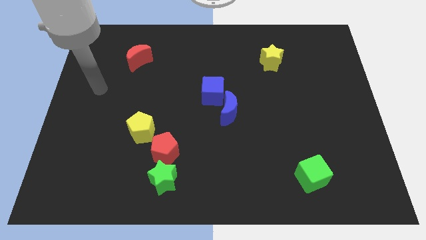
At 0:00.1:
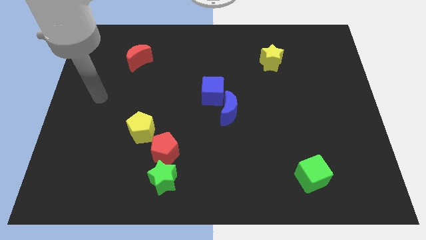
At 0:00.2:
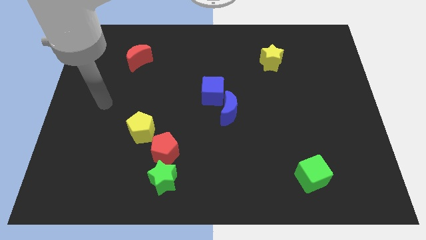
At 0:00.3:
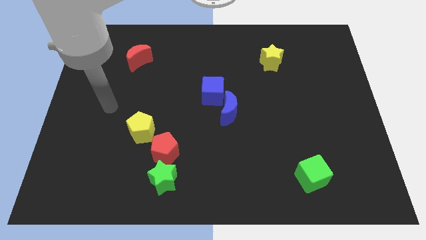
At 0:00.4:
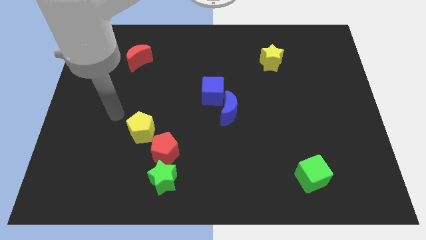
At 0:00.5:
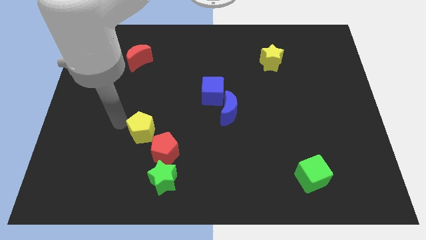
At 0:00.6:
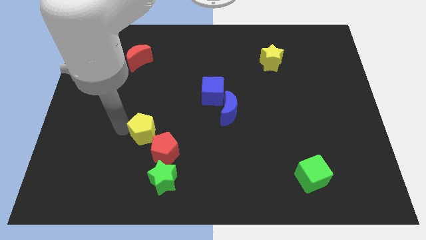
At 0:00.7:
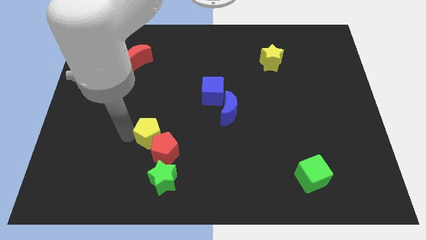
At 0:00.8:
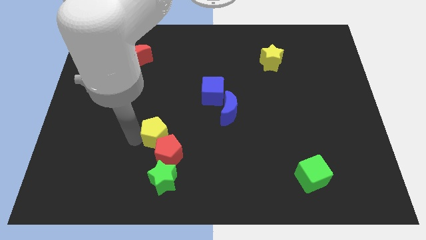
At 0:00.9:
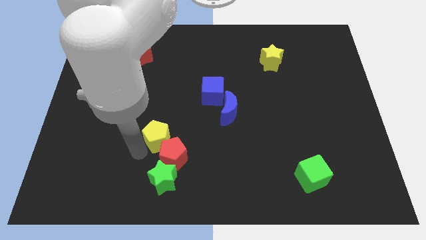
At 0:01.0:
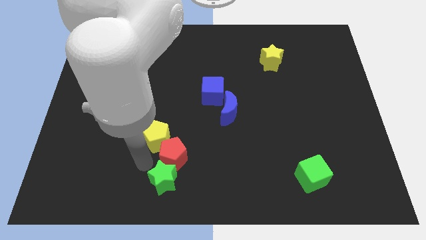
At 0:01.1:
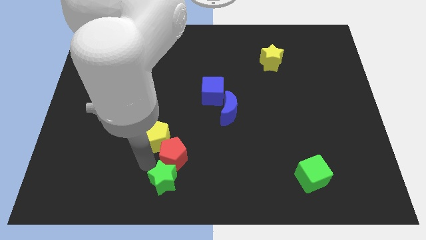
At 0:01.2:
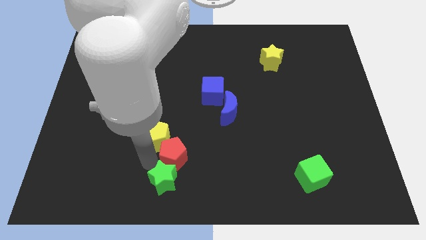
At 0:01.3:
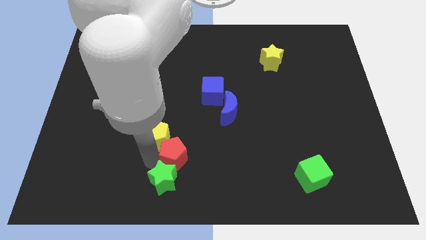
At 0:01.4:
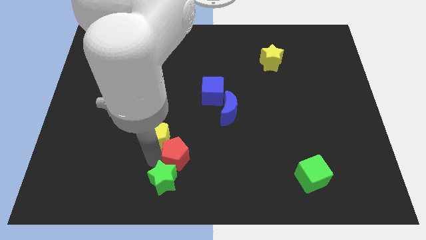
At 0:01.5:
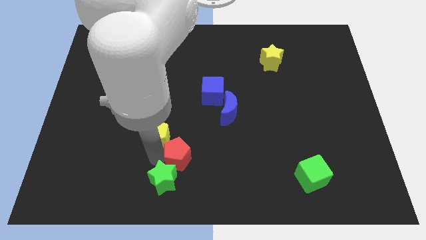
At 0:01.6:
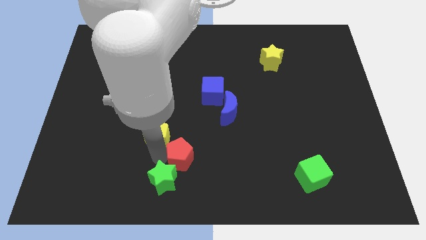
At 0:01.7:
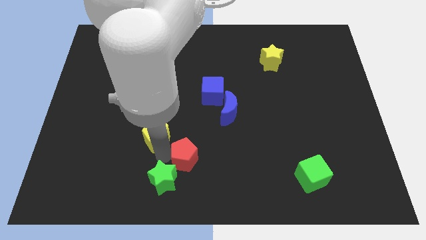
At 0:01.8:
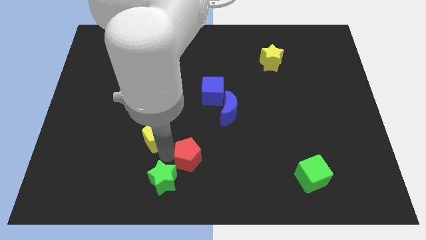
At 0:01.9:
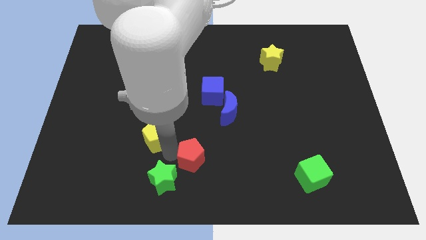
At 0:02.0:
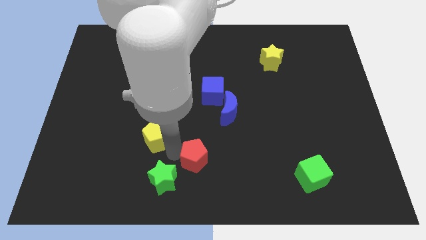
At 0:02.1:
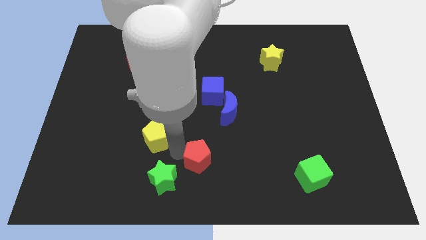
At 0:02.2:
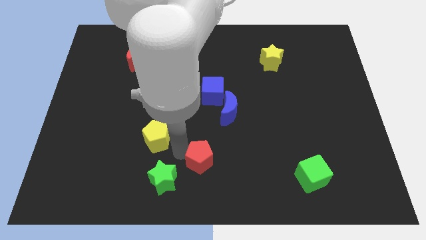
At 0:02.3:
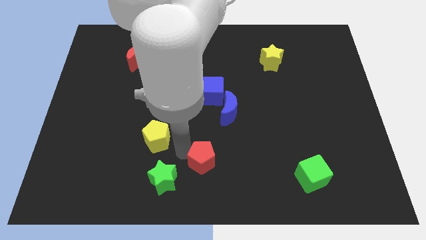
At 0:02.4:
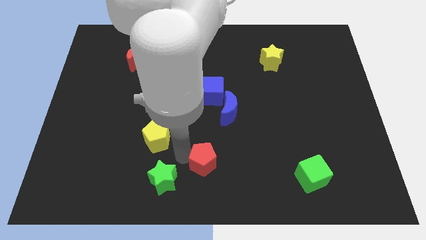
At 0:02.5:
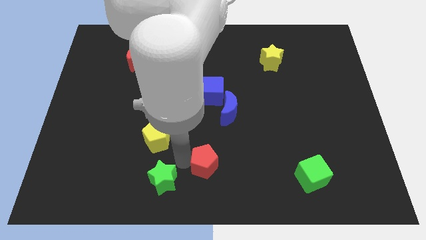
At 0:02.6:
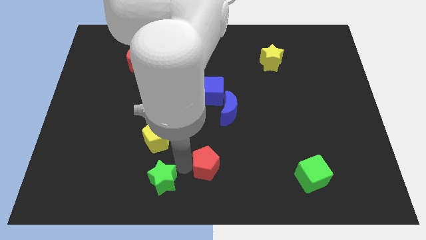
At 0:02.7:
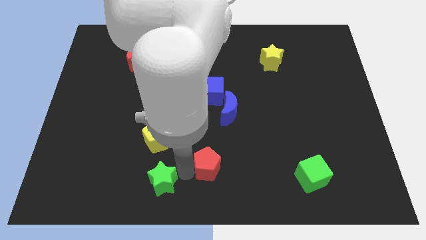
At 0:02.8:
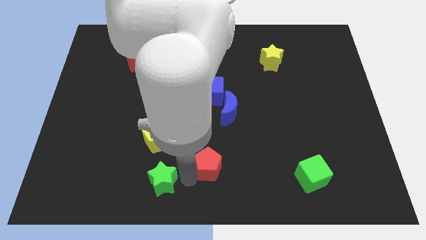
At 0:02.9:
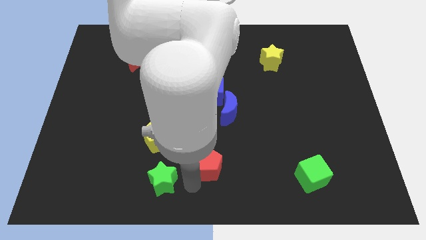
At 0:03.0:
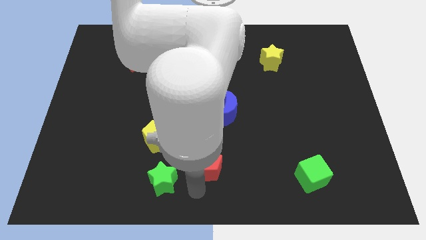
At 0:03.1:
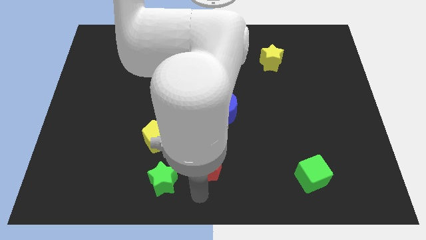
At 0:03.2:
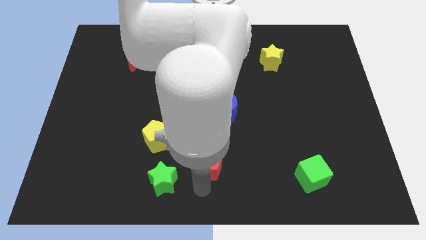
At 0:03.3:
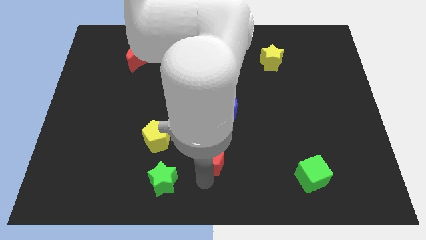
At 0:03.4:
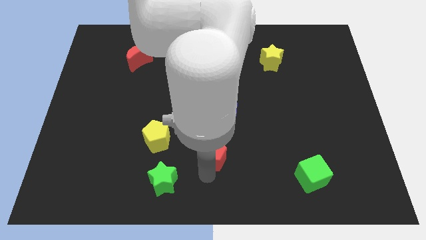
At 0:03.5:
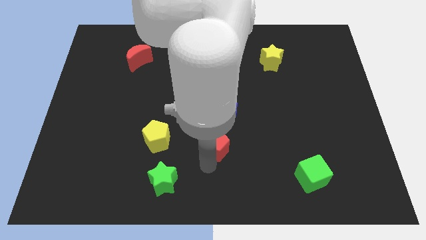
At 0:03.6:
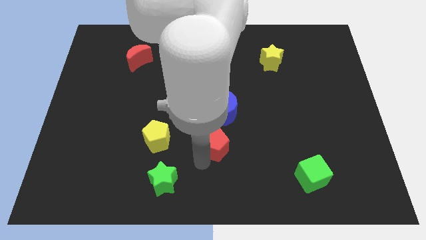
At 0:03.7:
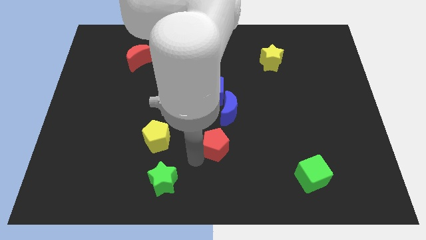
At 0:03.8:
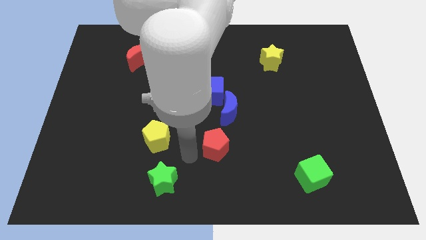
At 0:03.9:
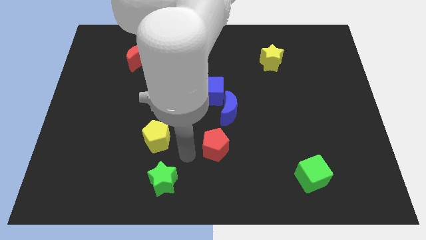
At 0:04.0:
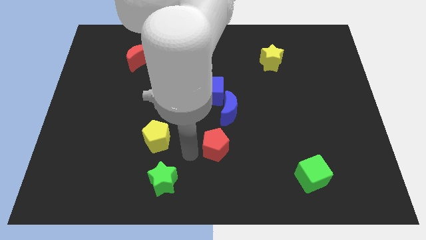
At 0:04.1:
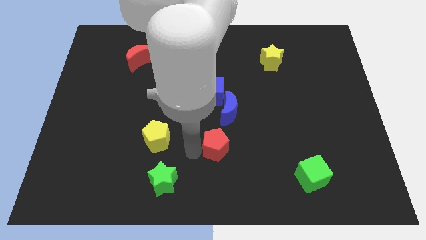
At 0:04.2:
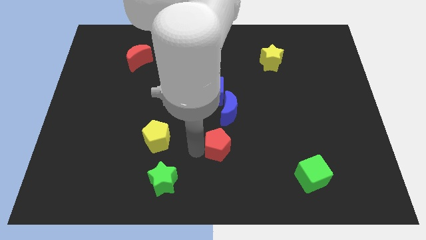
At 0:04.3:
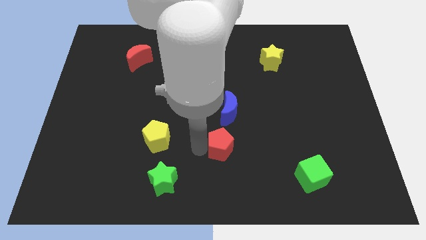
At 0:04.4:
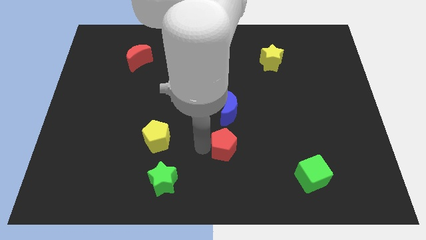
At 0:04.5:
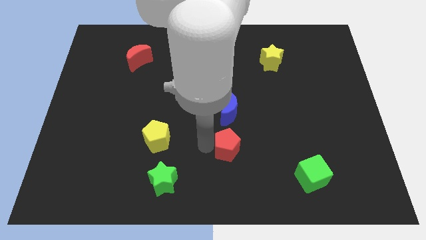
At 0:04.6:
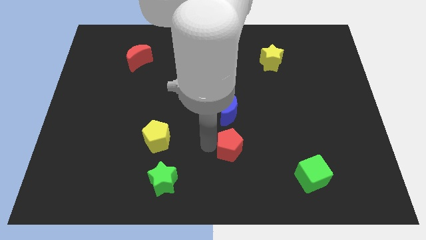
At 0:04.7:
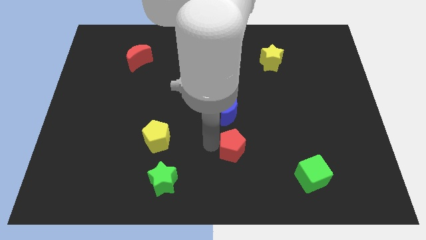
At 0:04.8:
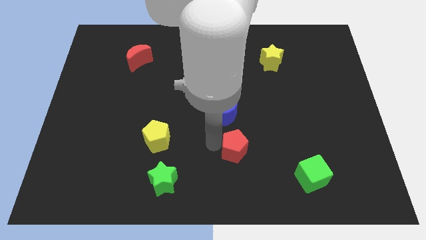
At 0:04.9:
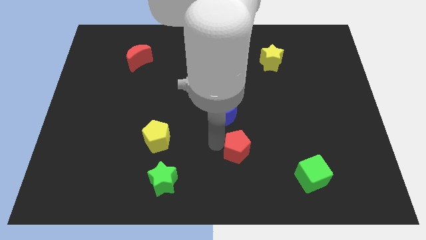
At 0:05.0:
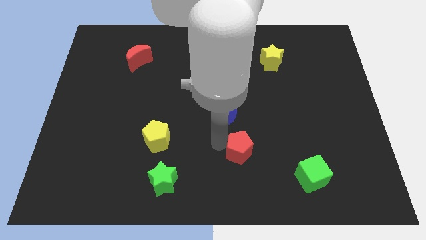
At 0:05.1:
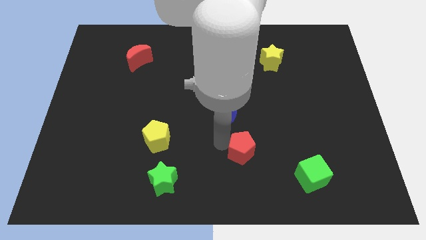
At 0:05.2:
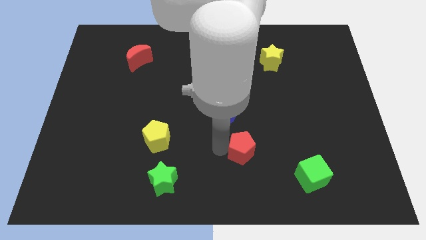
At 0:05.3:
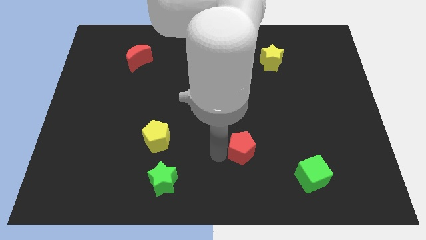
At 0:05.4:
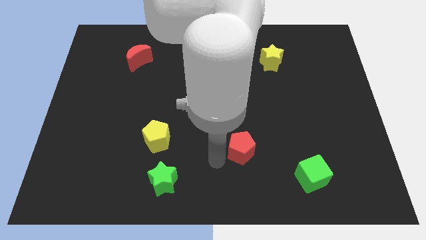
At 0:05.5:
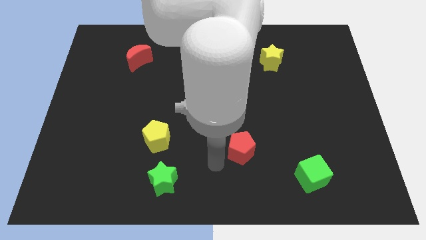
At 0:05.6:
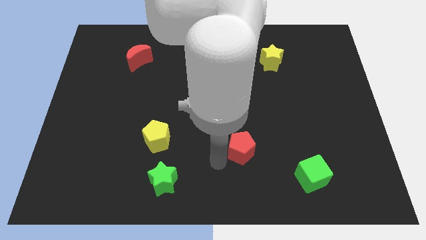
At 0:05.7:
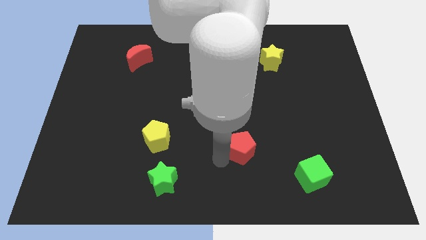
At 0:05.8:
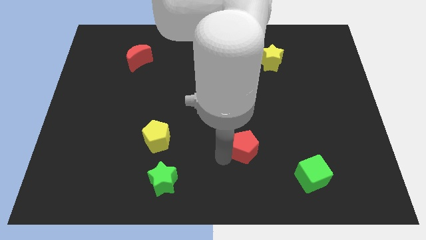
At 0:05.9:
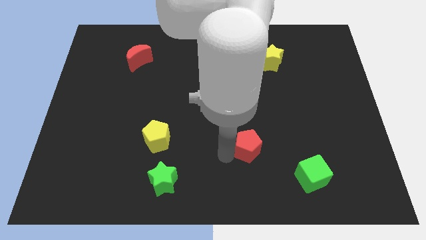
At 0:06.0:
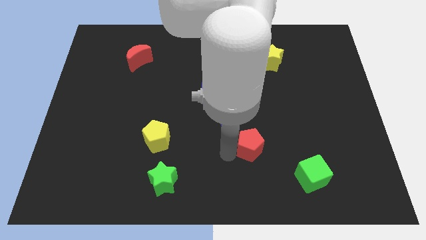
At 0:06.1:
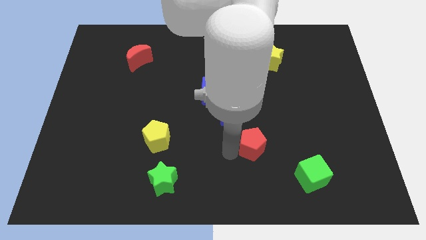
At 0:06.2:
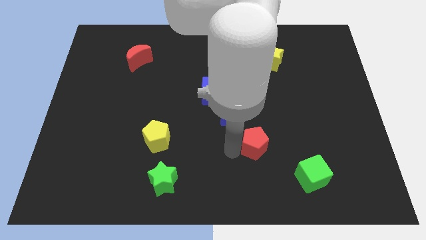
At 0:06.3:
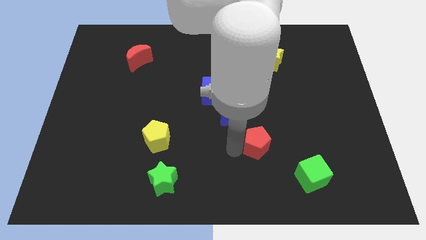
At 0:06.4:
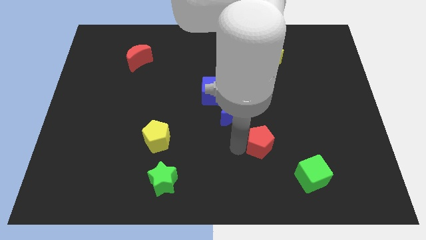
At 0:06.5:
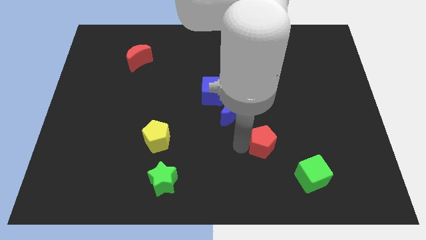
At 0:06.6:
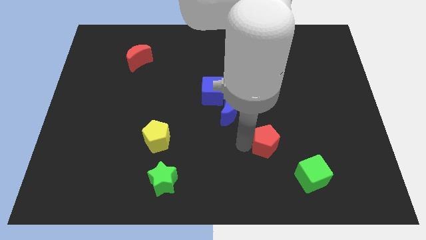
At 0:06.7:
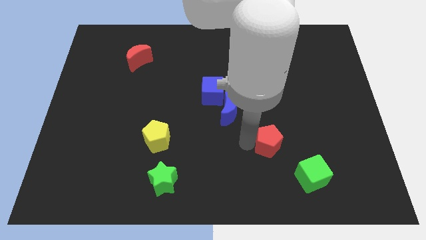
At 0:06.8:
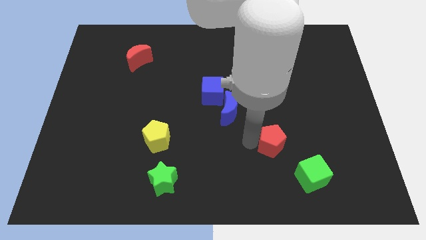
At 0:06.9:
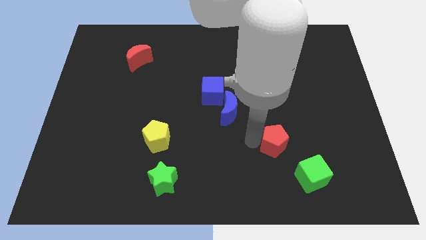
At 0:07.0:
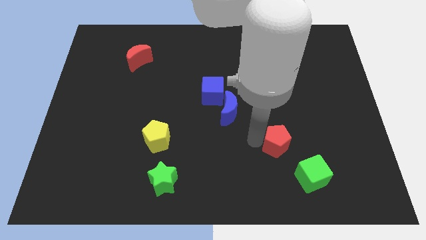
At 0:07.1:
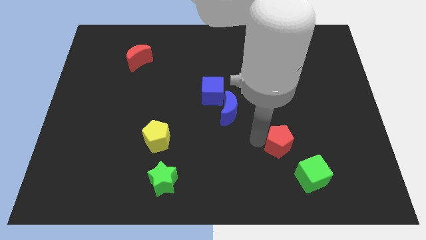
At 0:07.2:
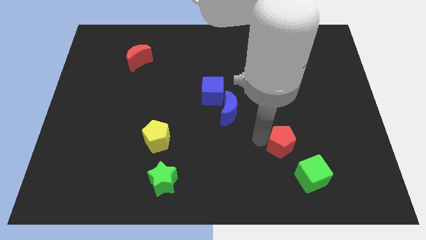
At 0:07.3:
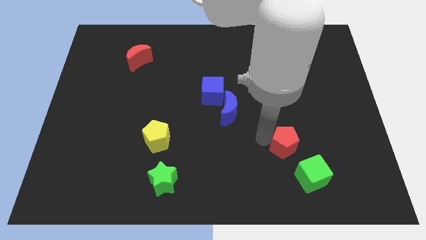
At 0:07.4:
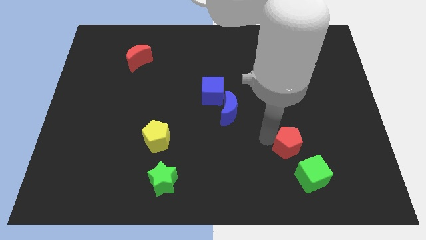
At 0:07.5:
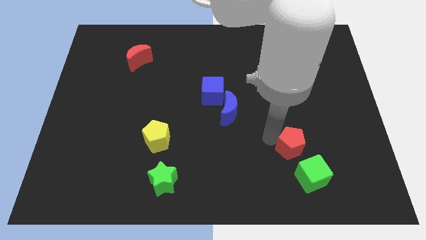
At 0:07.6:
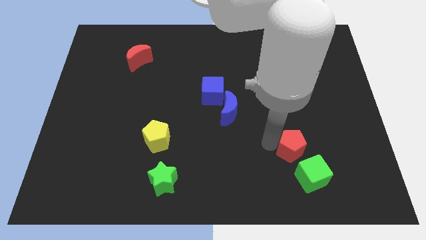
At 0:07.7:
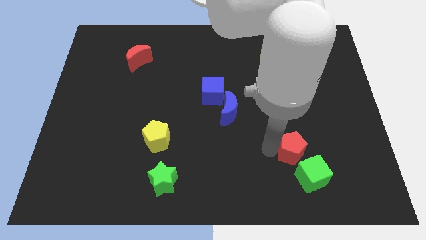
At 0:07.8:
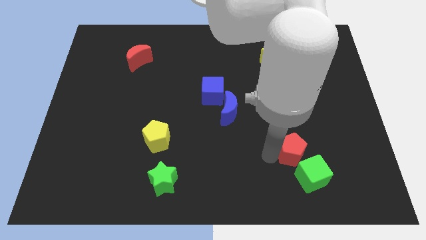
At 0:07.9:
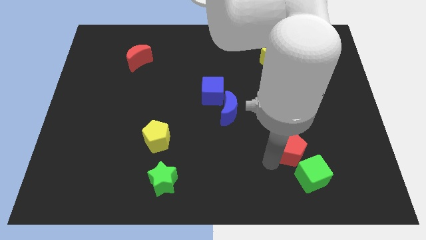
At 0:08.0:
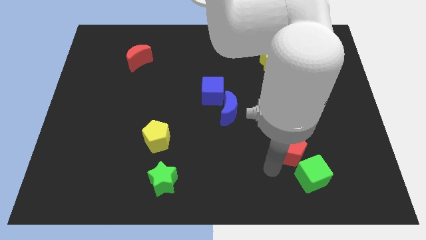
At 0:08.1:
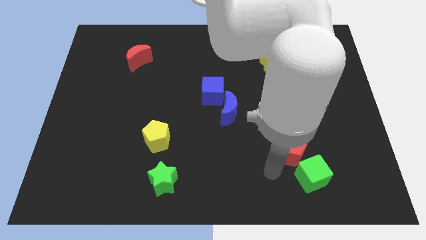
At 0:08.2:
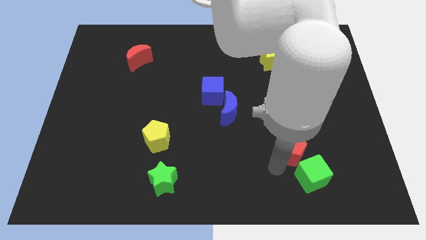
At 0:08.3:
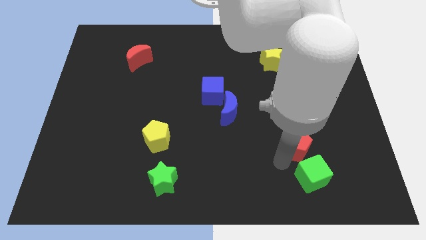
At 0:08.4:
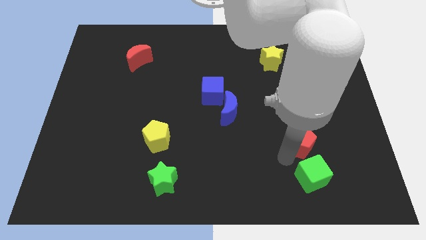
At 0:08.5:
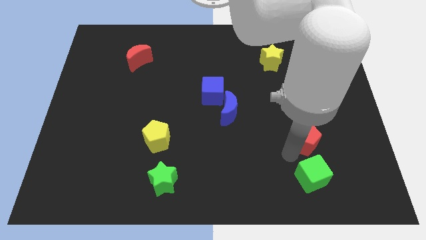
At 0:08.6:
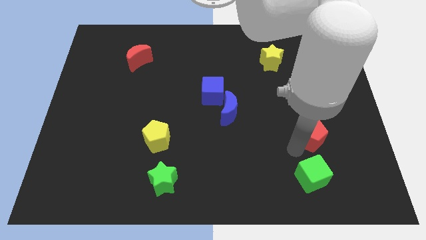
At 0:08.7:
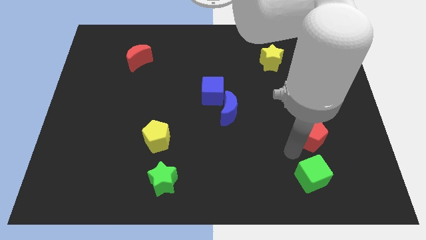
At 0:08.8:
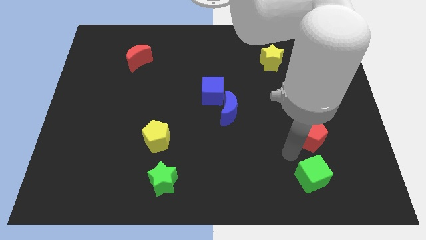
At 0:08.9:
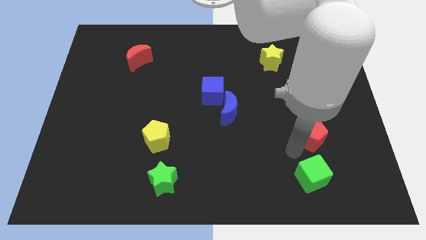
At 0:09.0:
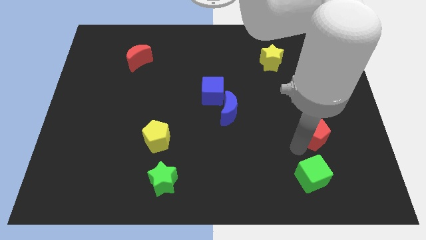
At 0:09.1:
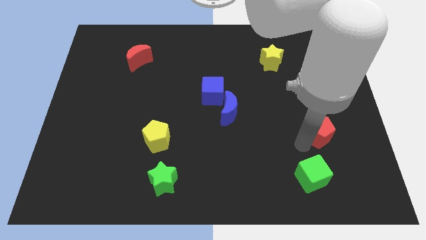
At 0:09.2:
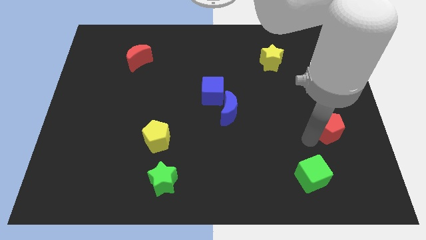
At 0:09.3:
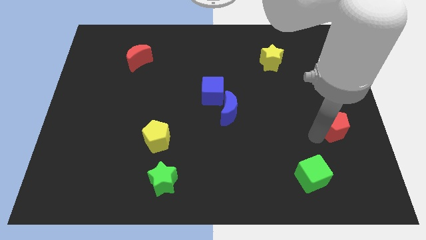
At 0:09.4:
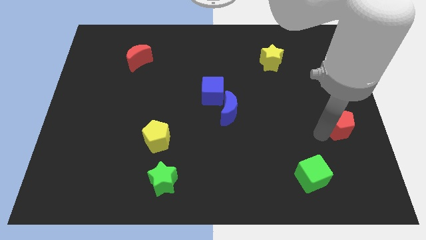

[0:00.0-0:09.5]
slide the red pentagon to the right side of the board
